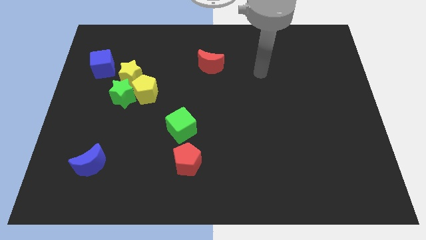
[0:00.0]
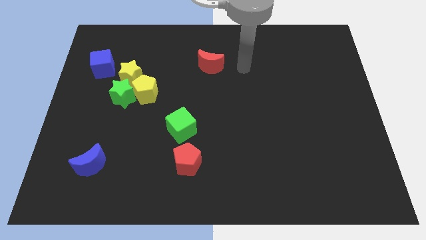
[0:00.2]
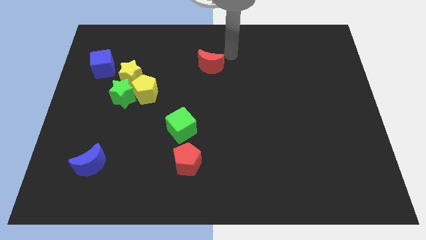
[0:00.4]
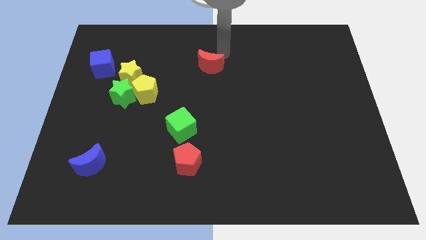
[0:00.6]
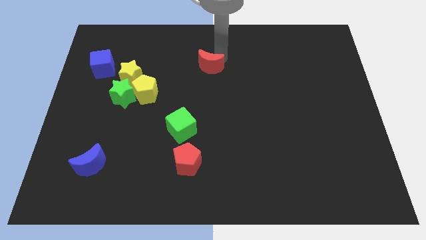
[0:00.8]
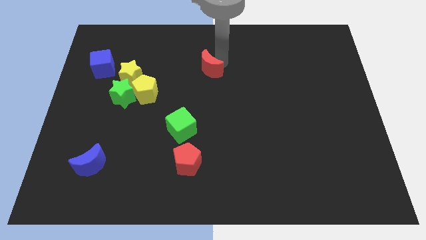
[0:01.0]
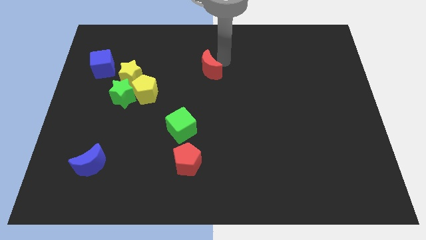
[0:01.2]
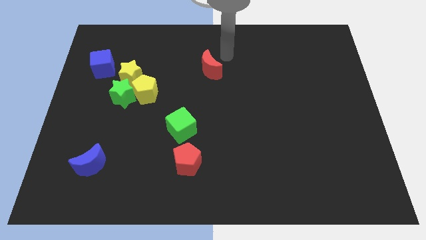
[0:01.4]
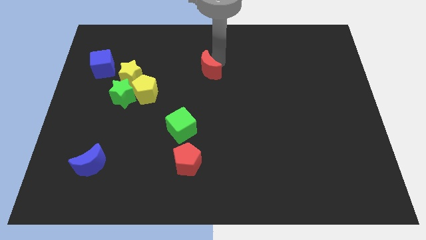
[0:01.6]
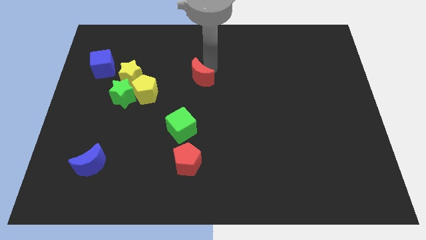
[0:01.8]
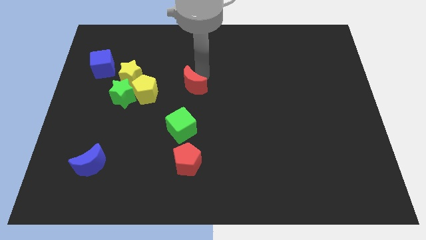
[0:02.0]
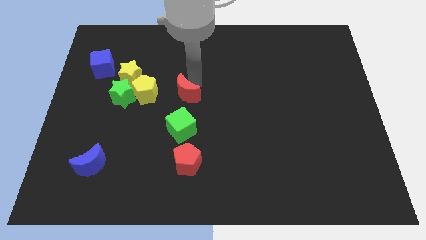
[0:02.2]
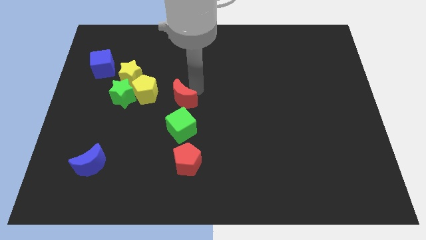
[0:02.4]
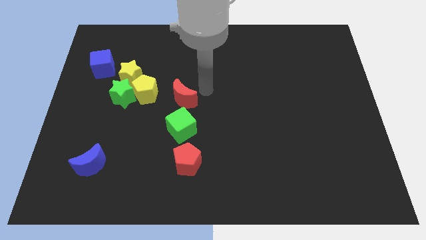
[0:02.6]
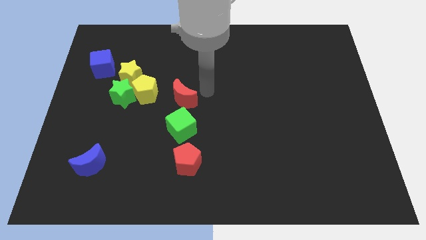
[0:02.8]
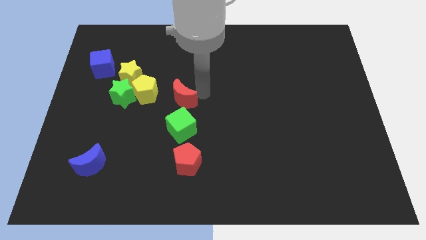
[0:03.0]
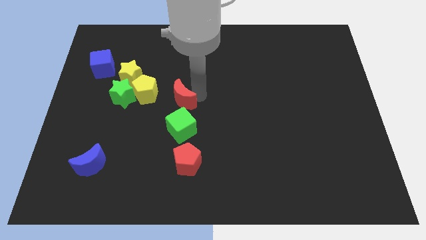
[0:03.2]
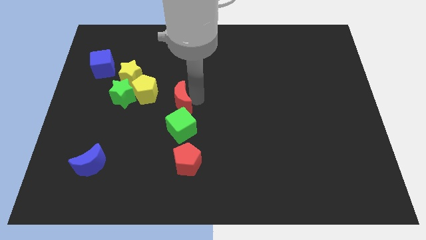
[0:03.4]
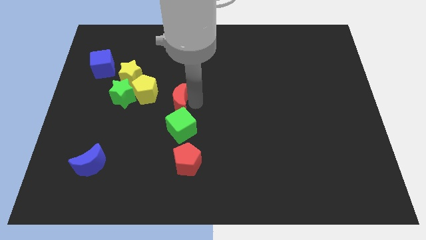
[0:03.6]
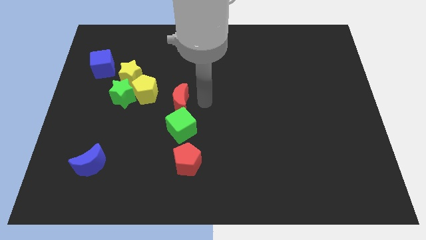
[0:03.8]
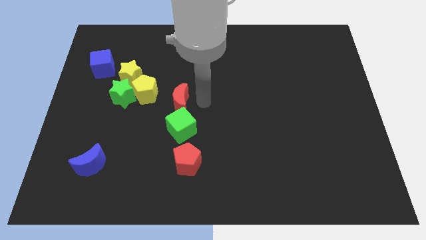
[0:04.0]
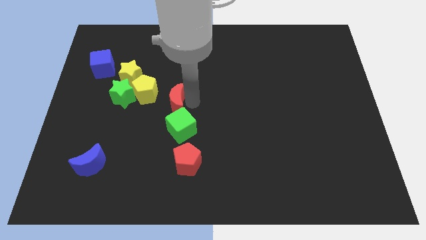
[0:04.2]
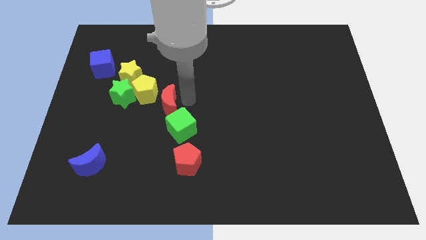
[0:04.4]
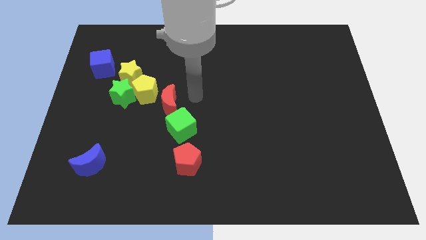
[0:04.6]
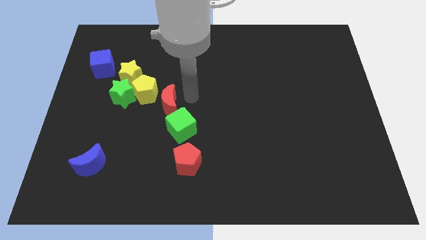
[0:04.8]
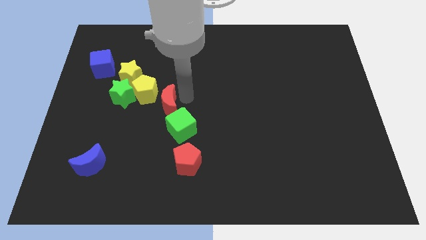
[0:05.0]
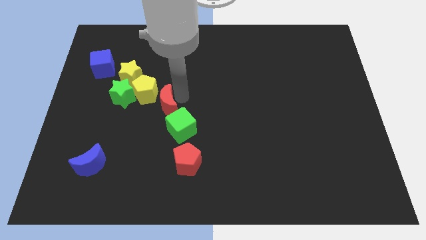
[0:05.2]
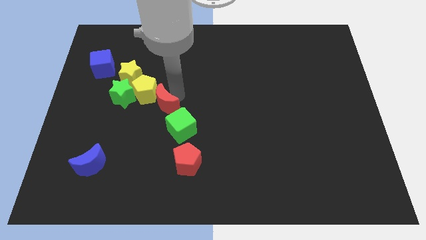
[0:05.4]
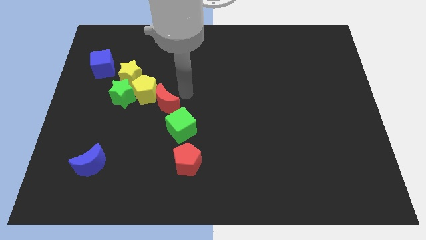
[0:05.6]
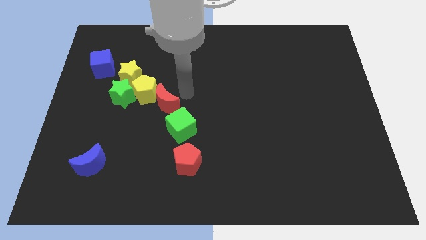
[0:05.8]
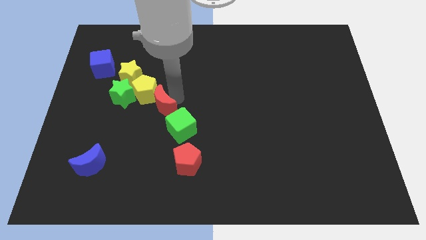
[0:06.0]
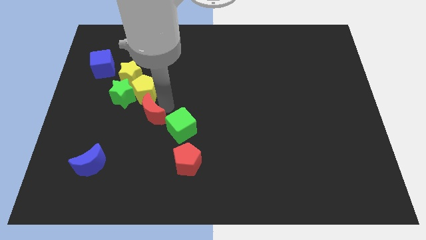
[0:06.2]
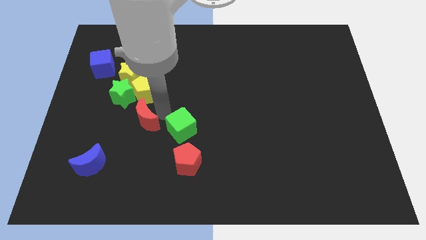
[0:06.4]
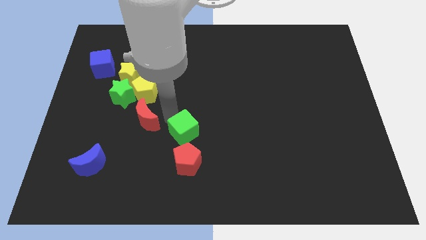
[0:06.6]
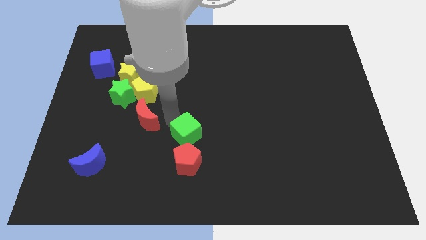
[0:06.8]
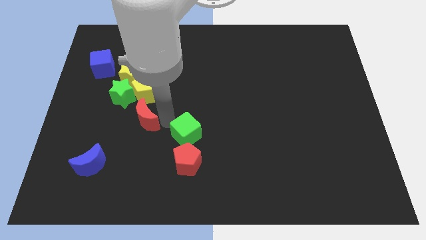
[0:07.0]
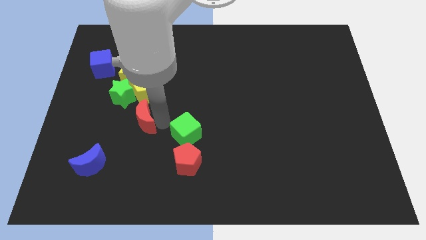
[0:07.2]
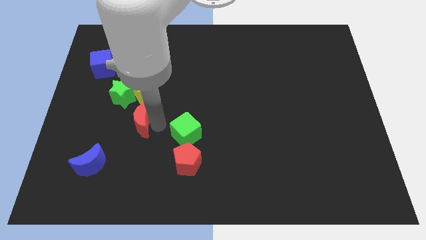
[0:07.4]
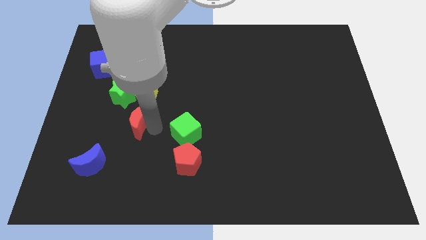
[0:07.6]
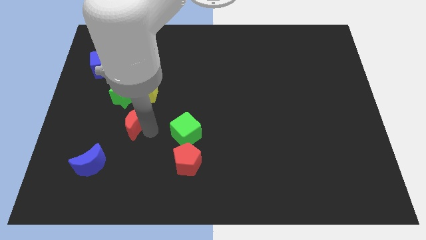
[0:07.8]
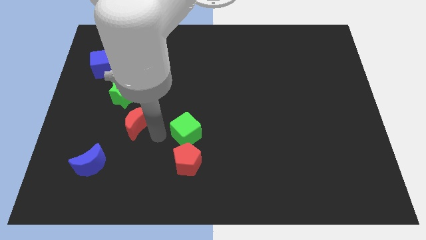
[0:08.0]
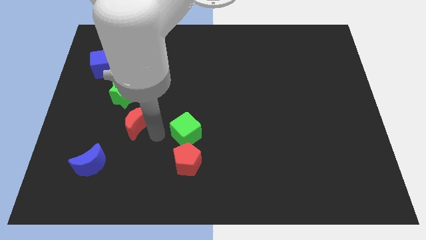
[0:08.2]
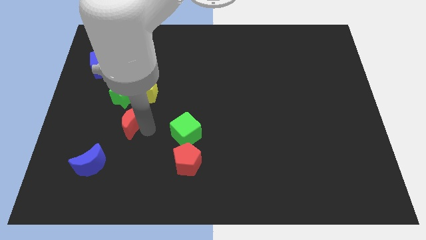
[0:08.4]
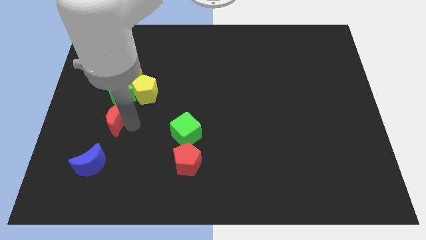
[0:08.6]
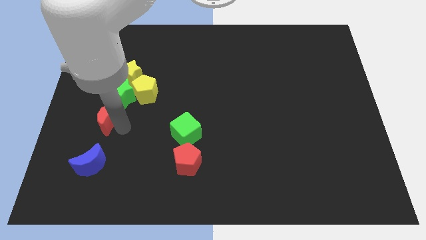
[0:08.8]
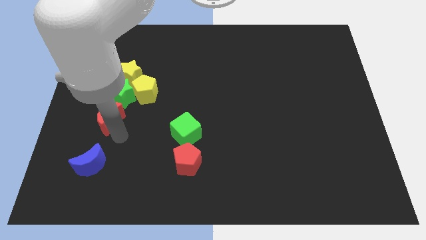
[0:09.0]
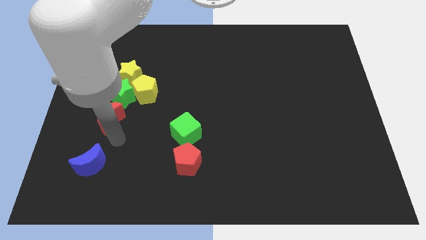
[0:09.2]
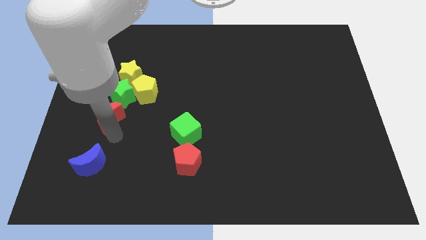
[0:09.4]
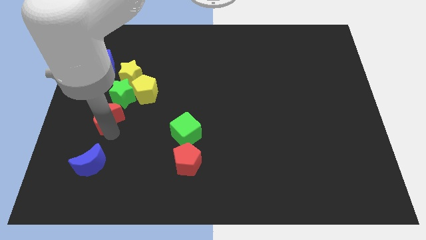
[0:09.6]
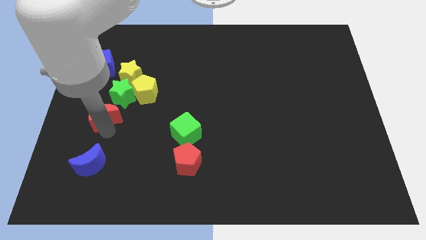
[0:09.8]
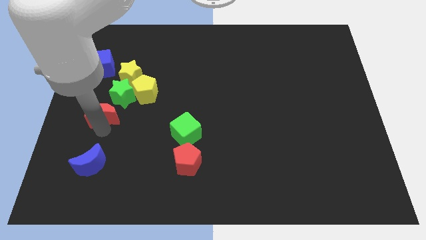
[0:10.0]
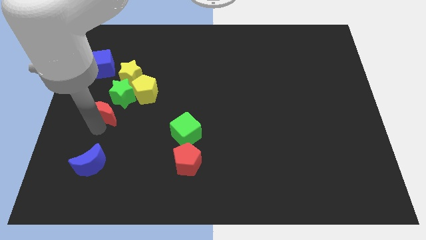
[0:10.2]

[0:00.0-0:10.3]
slide the red moon to the bottom of the blue cube

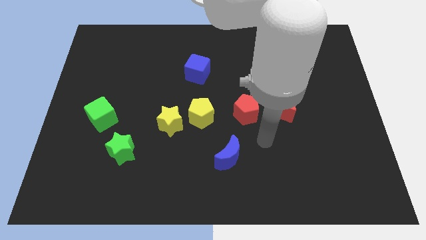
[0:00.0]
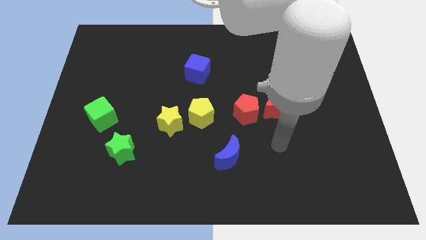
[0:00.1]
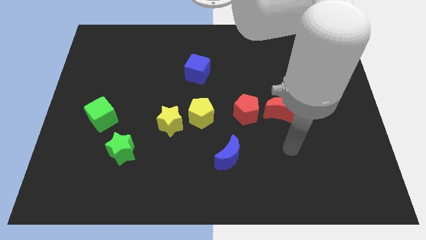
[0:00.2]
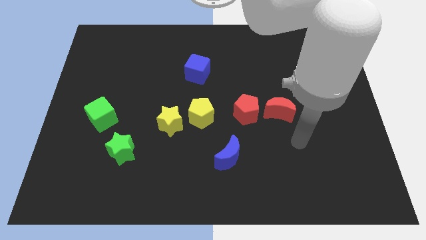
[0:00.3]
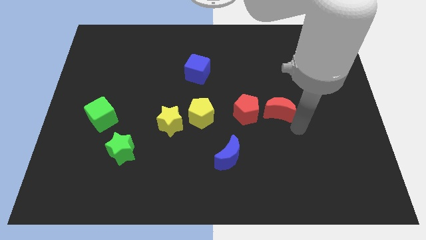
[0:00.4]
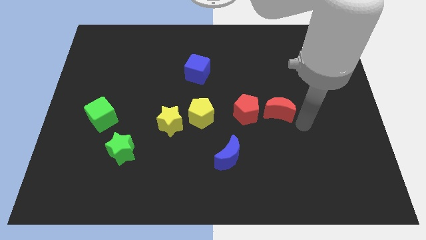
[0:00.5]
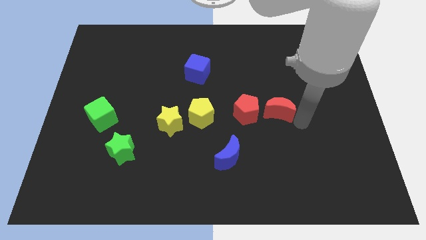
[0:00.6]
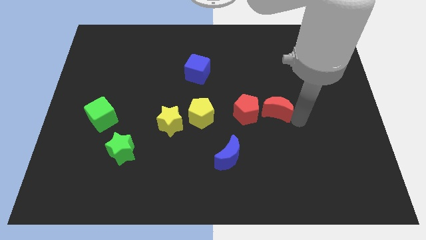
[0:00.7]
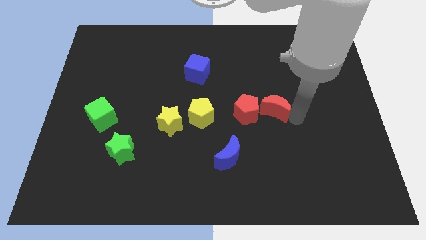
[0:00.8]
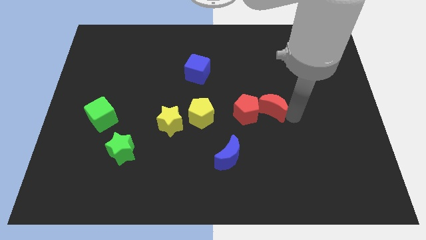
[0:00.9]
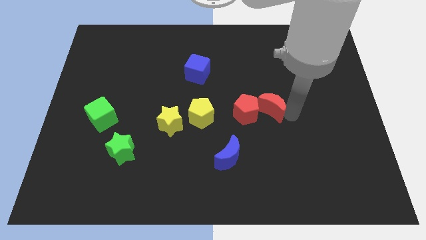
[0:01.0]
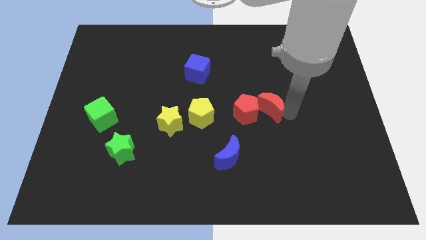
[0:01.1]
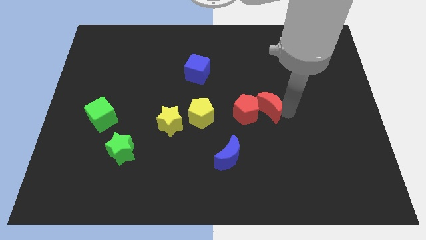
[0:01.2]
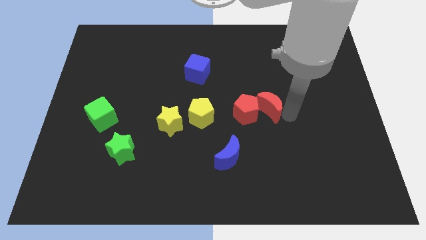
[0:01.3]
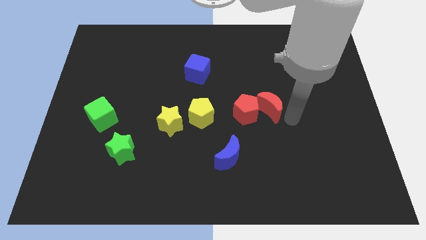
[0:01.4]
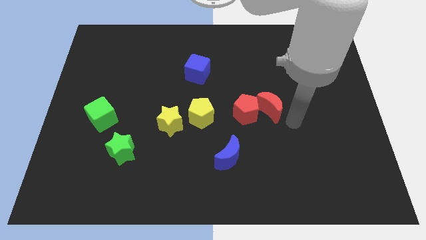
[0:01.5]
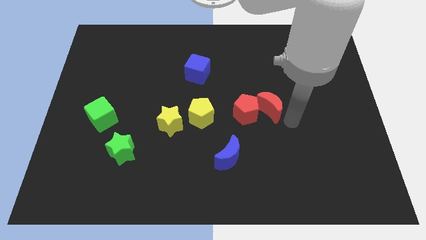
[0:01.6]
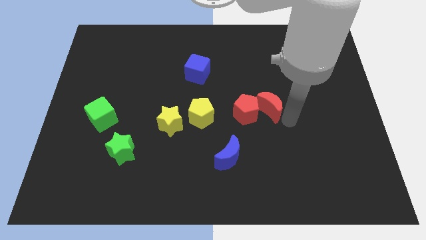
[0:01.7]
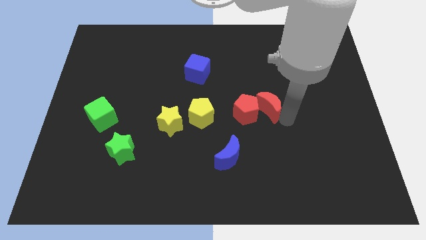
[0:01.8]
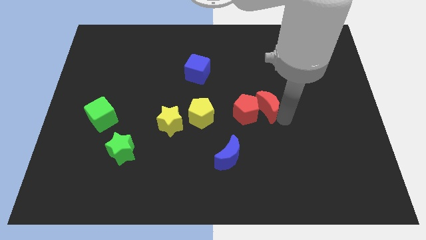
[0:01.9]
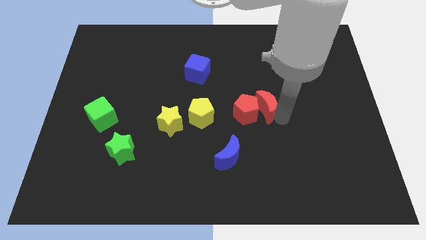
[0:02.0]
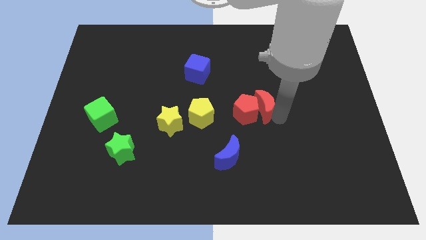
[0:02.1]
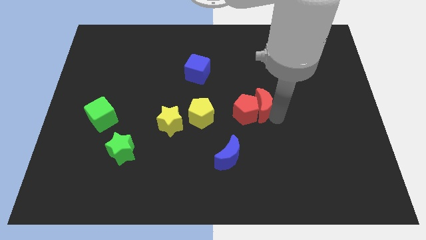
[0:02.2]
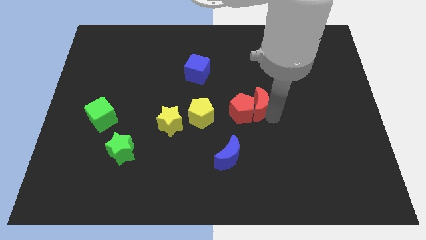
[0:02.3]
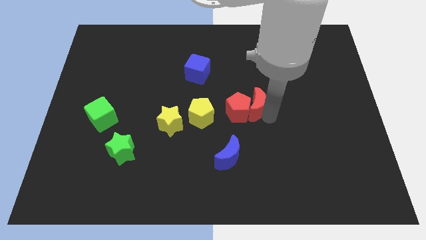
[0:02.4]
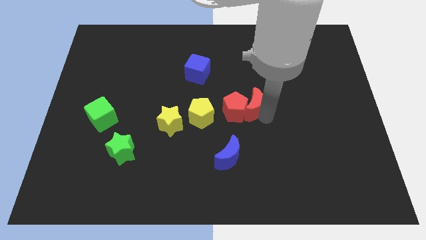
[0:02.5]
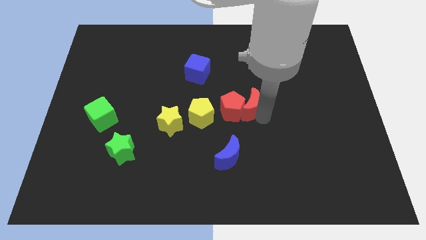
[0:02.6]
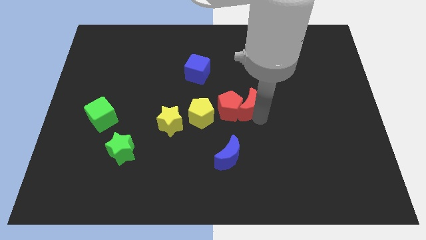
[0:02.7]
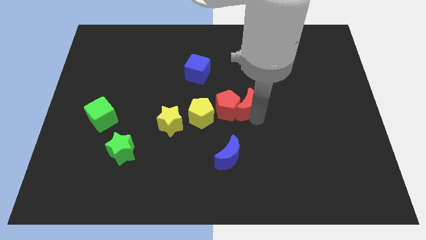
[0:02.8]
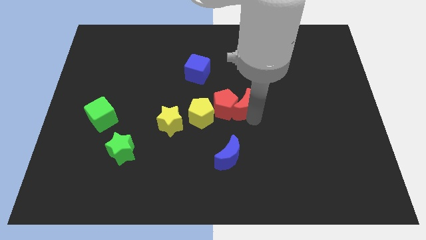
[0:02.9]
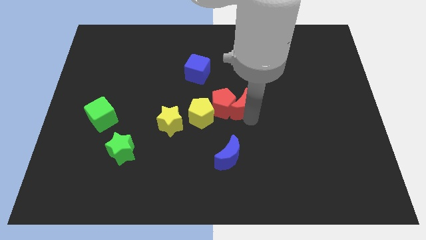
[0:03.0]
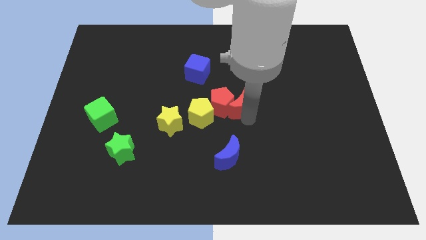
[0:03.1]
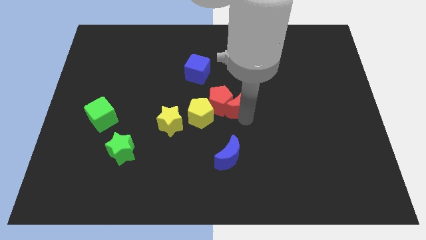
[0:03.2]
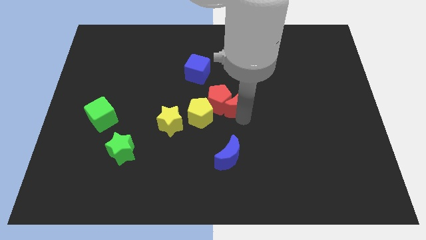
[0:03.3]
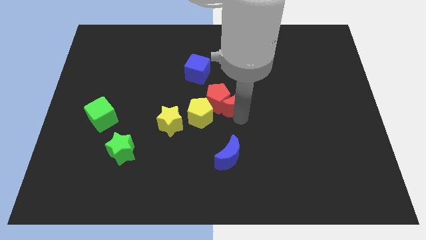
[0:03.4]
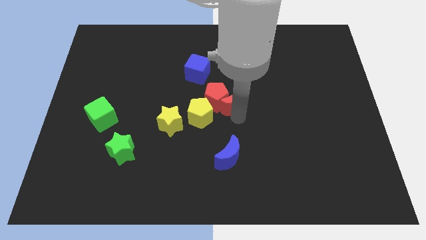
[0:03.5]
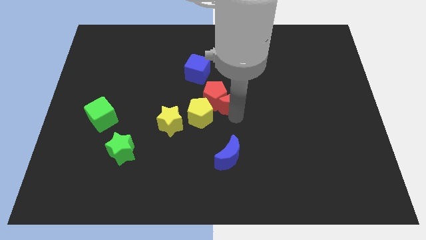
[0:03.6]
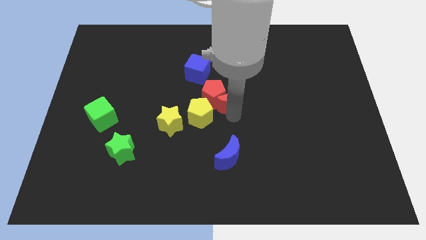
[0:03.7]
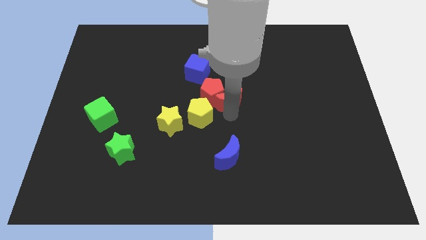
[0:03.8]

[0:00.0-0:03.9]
put the red moon to the bottom right of the blue cube
